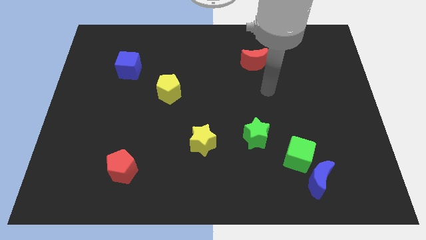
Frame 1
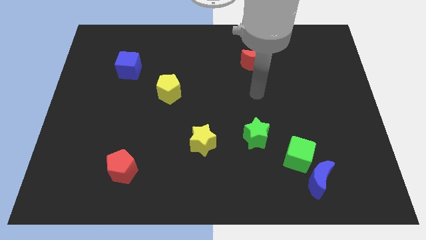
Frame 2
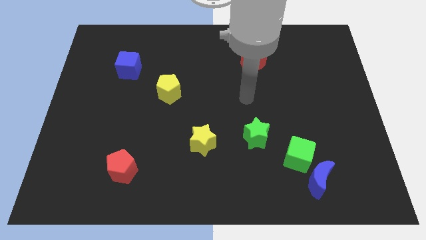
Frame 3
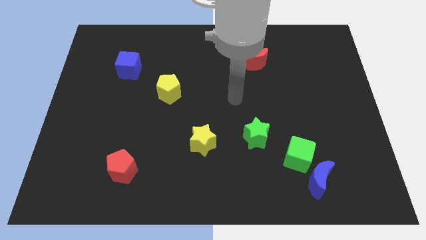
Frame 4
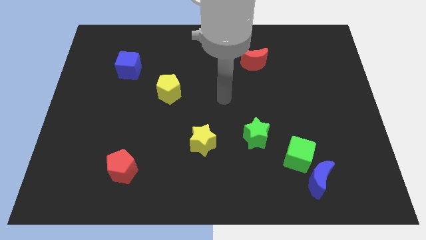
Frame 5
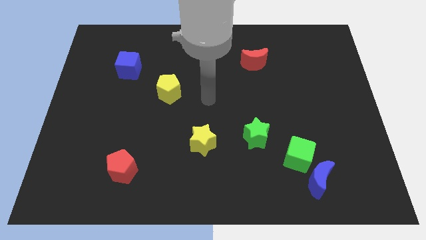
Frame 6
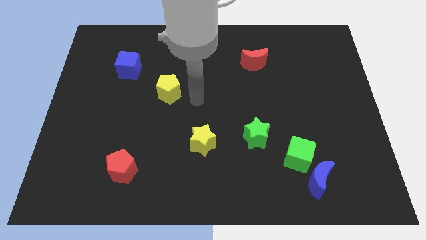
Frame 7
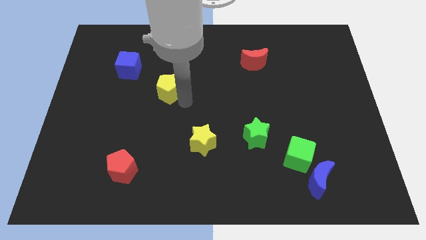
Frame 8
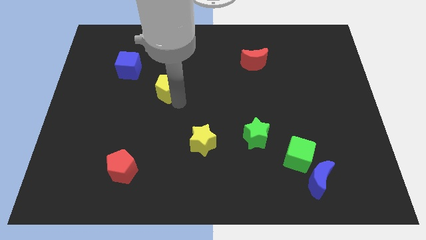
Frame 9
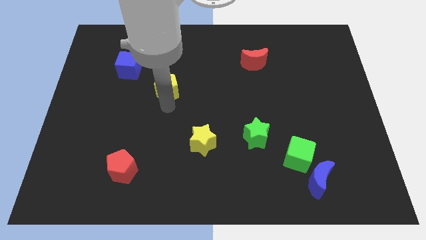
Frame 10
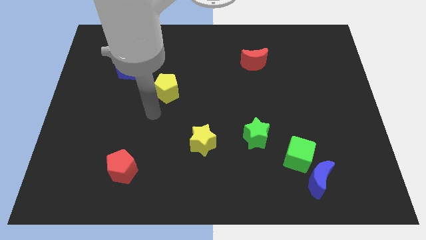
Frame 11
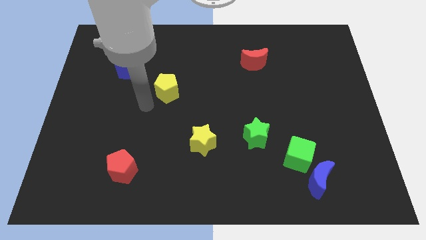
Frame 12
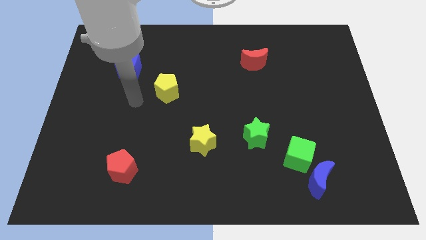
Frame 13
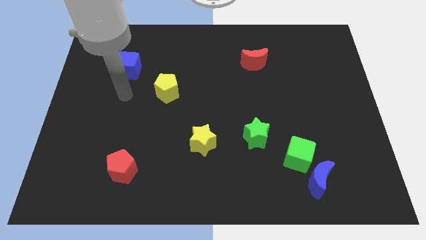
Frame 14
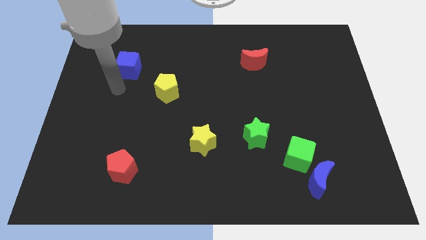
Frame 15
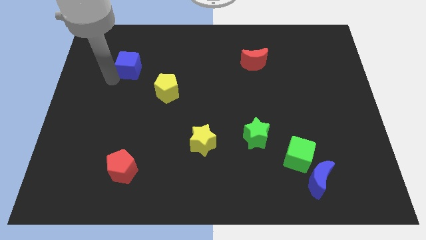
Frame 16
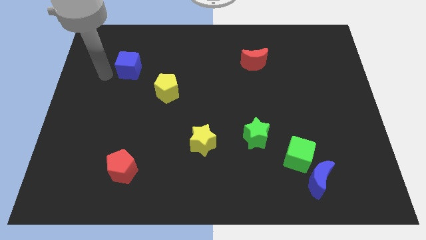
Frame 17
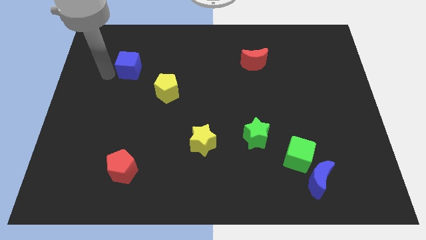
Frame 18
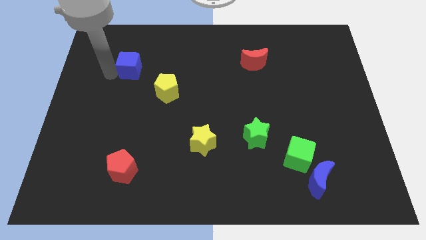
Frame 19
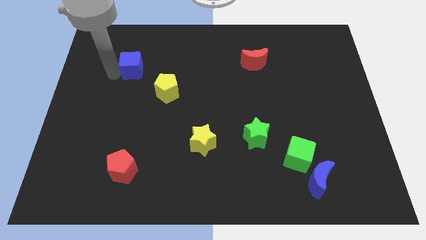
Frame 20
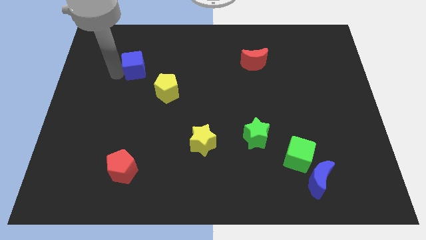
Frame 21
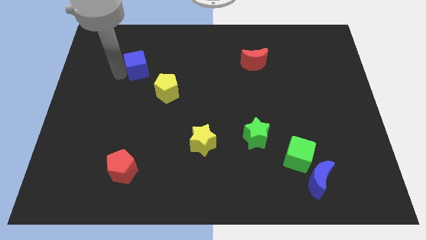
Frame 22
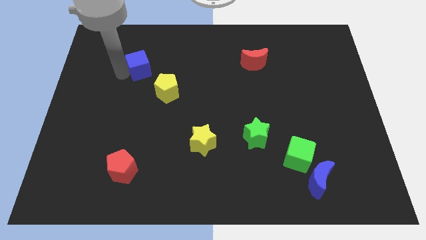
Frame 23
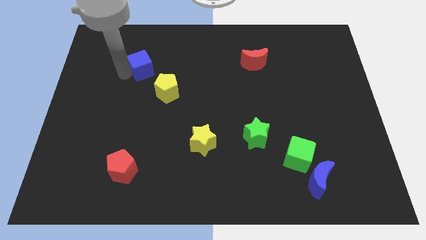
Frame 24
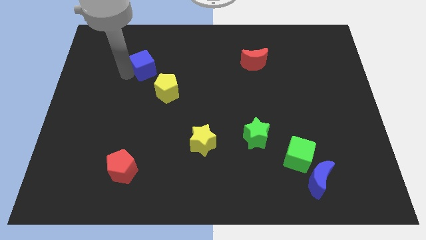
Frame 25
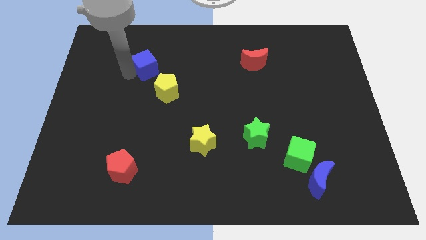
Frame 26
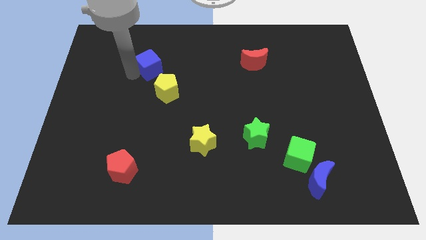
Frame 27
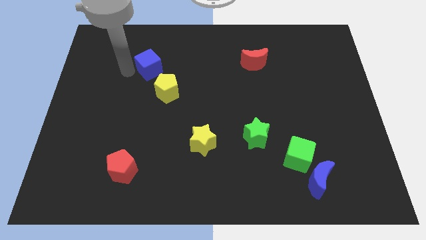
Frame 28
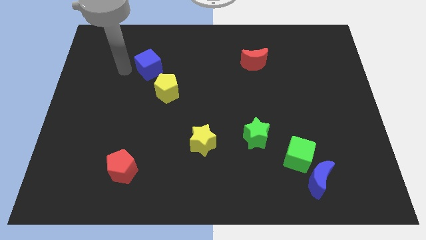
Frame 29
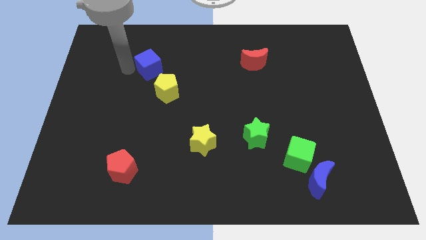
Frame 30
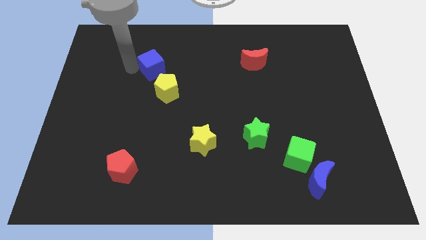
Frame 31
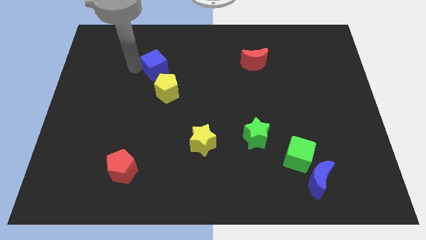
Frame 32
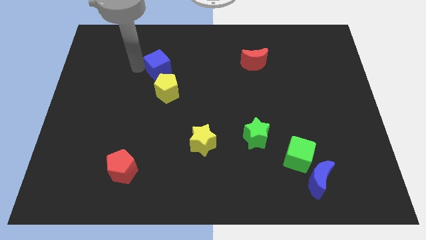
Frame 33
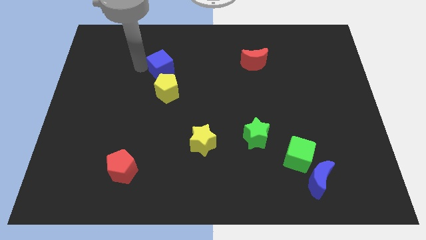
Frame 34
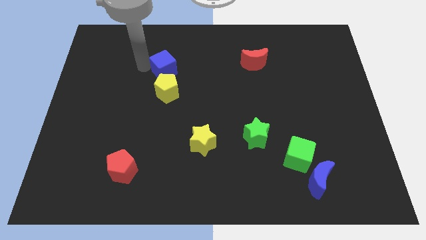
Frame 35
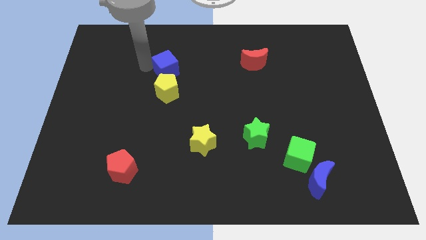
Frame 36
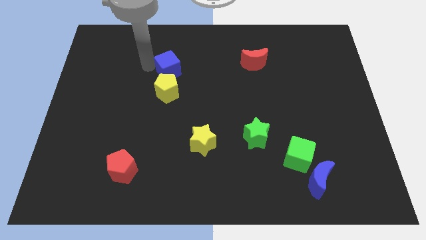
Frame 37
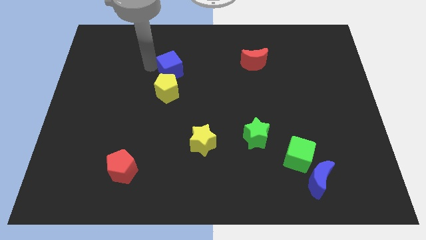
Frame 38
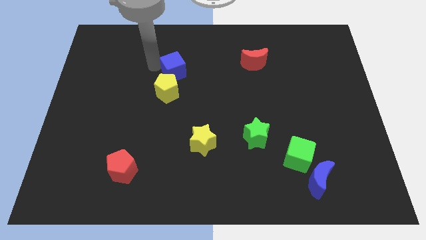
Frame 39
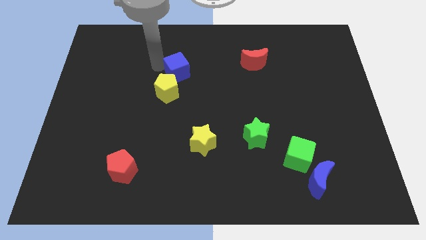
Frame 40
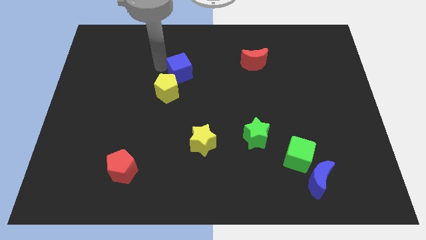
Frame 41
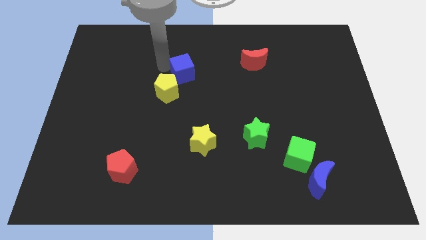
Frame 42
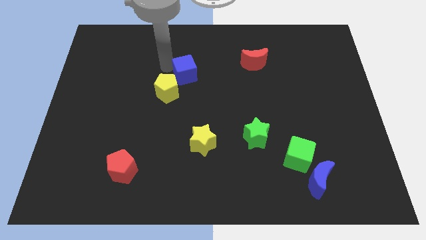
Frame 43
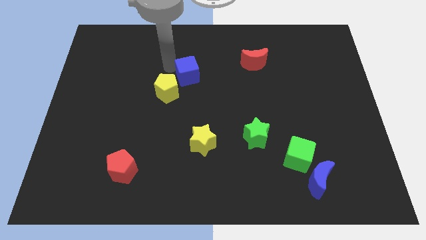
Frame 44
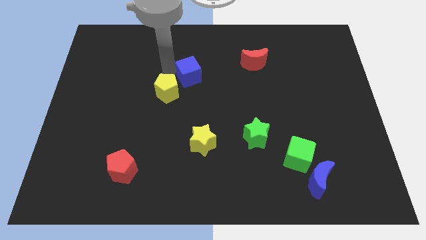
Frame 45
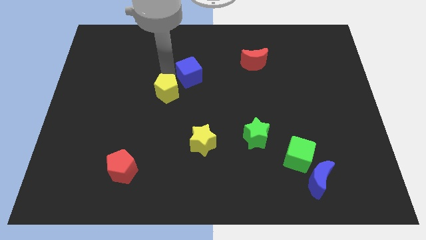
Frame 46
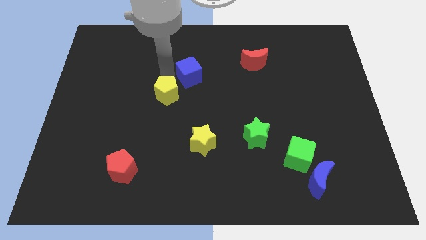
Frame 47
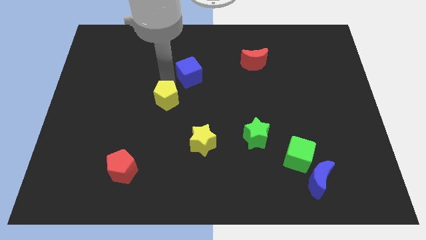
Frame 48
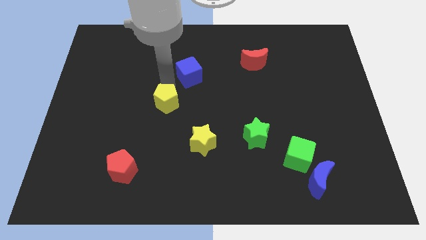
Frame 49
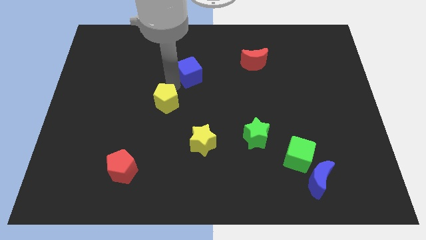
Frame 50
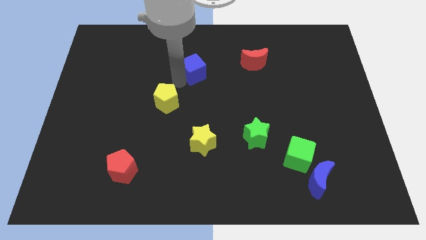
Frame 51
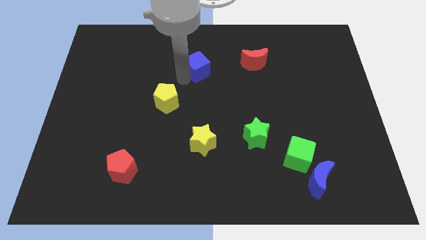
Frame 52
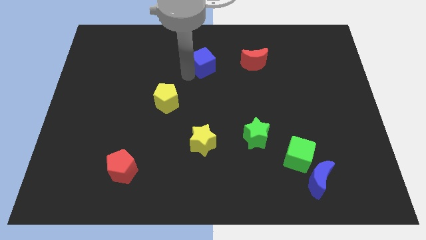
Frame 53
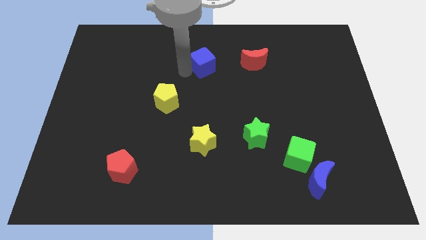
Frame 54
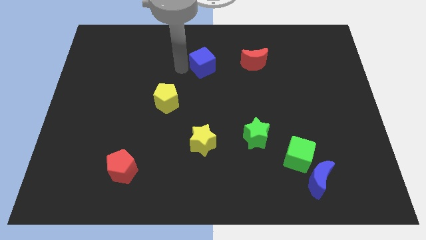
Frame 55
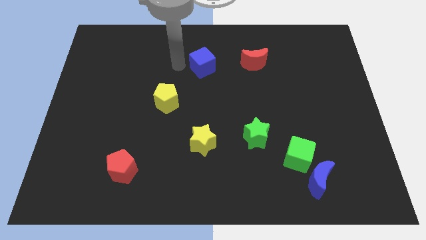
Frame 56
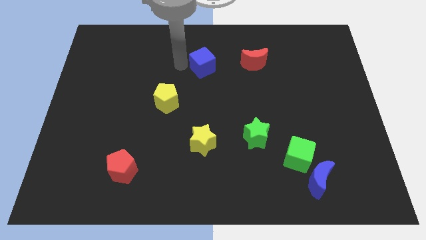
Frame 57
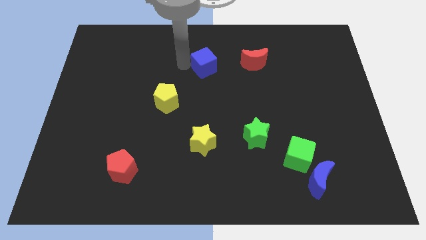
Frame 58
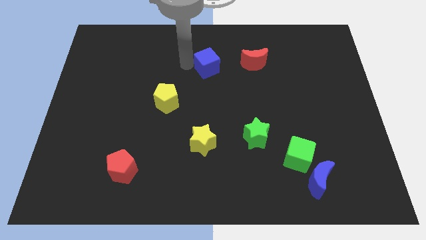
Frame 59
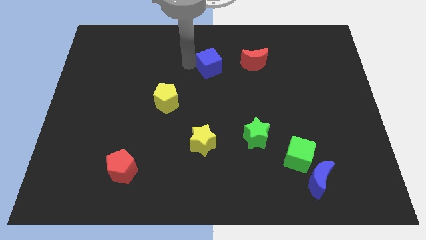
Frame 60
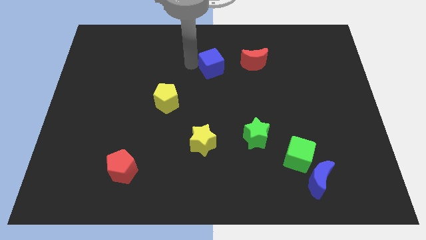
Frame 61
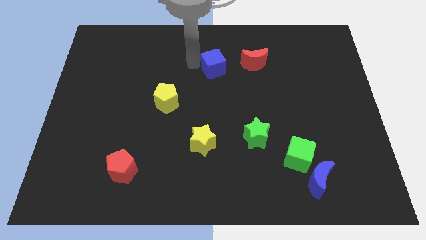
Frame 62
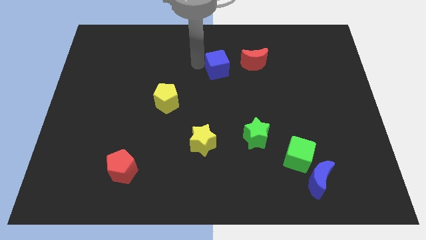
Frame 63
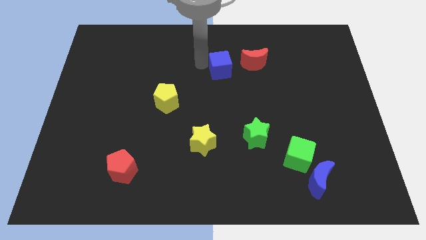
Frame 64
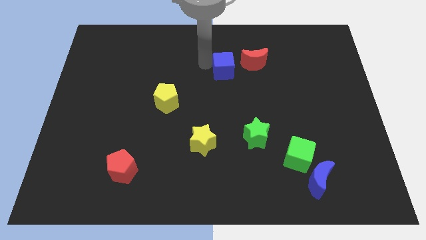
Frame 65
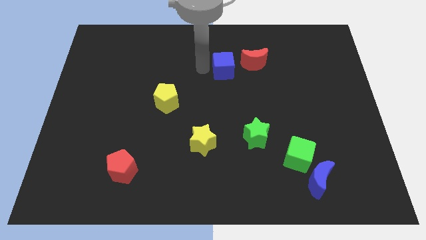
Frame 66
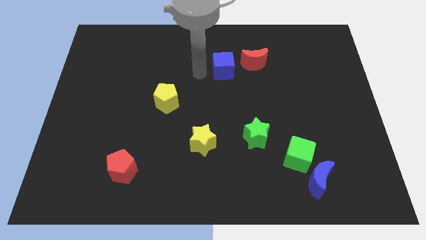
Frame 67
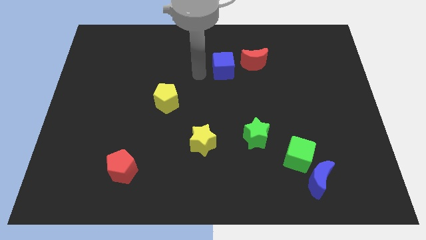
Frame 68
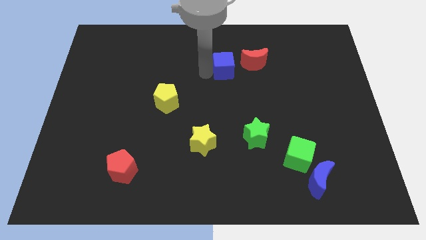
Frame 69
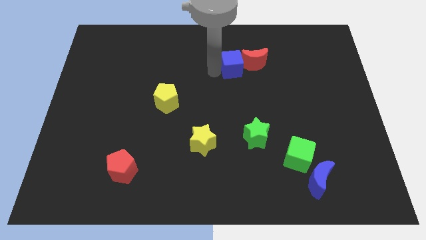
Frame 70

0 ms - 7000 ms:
push the blue cube towards the red moon
